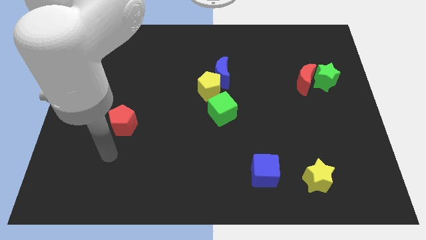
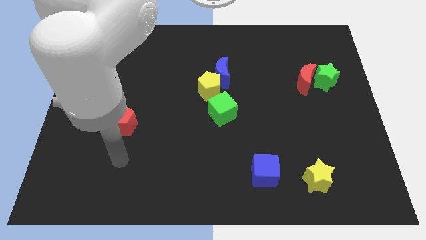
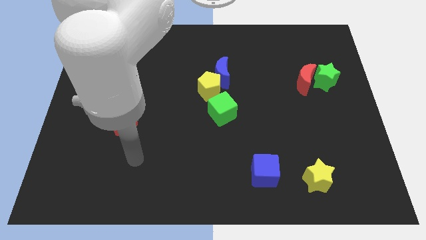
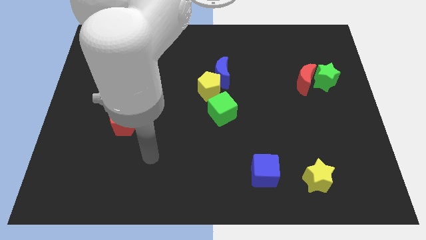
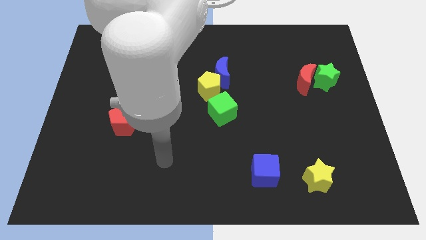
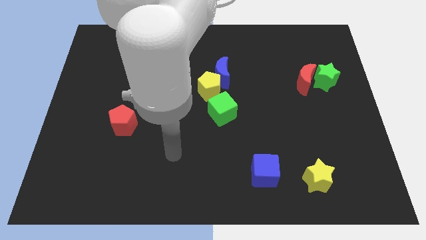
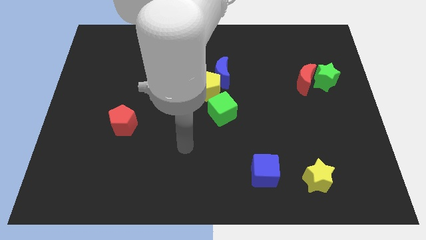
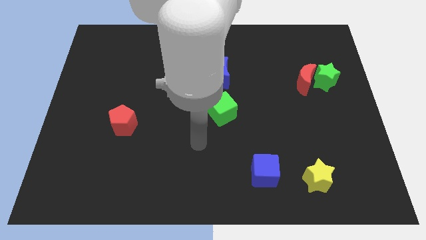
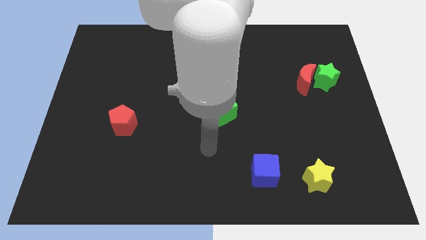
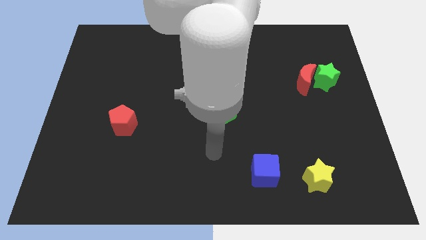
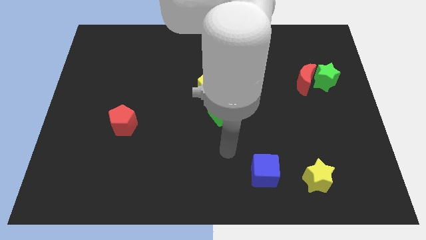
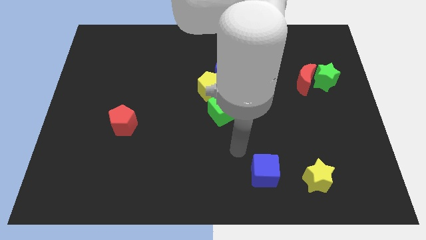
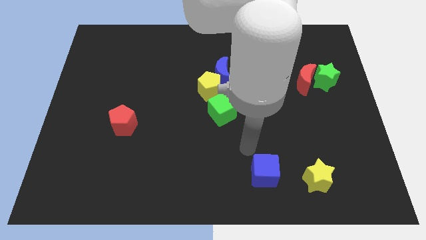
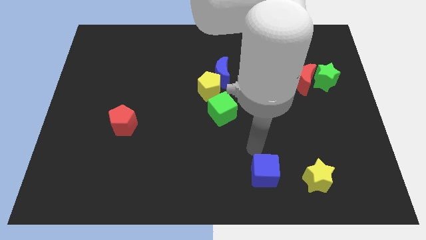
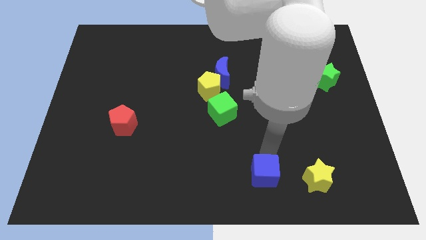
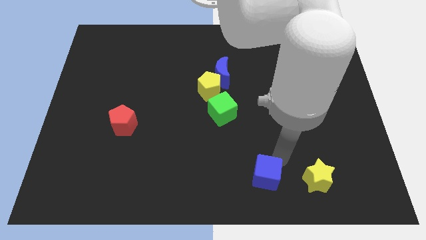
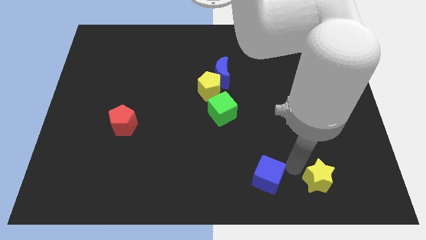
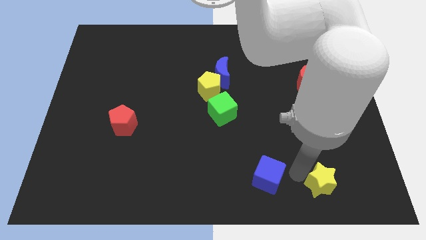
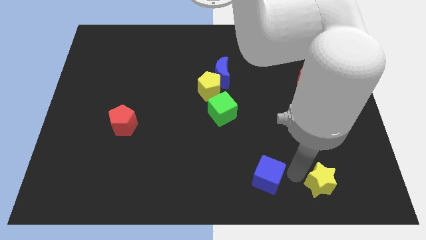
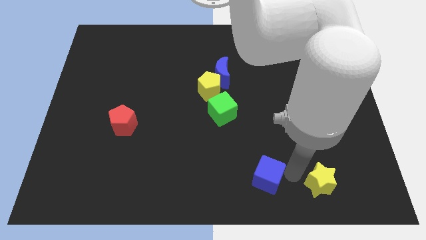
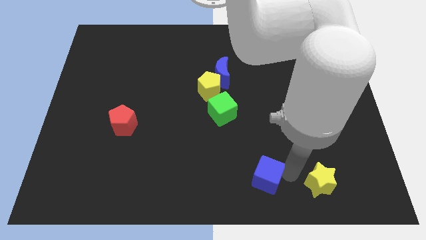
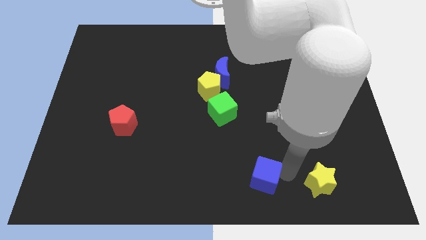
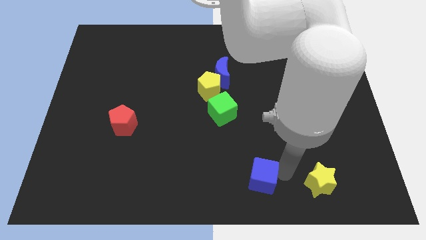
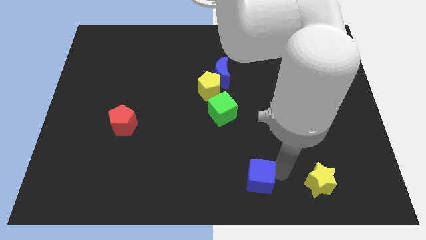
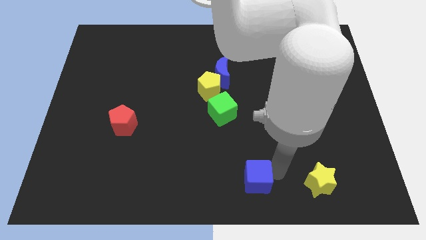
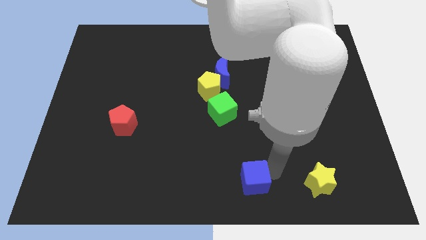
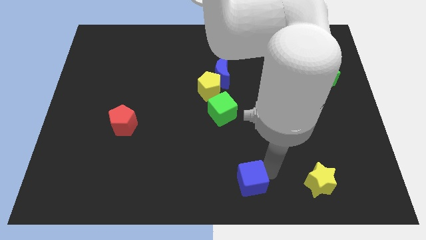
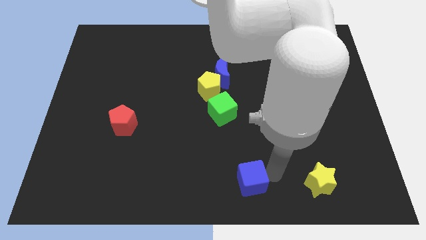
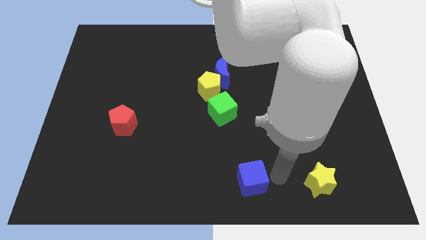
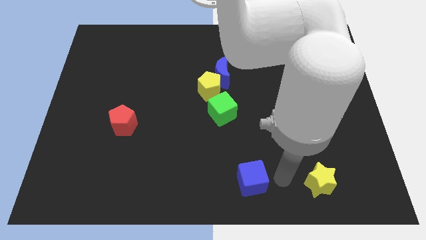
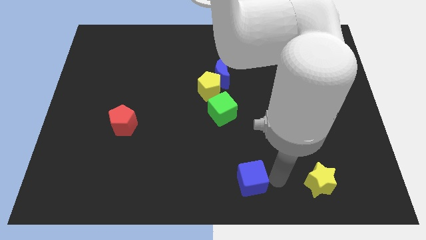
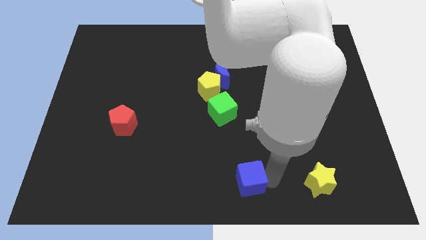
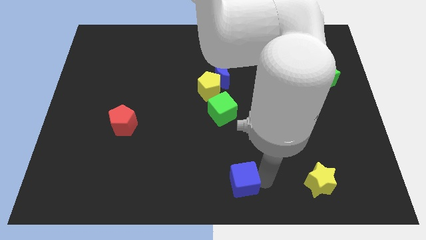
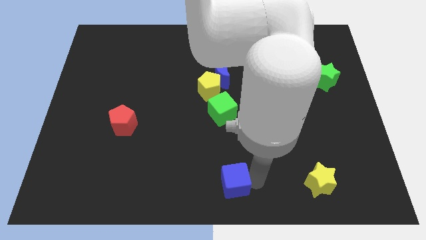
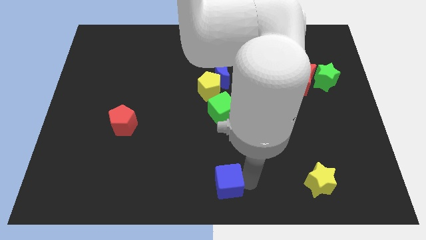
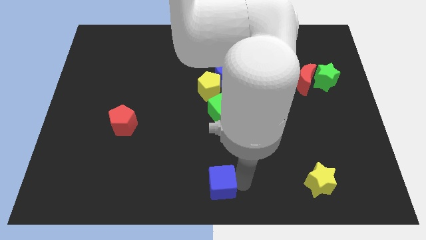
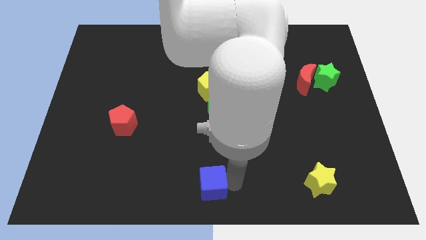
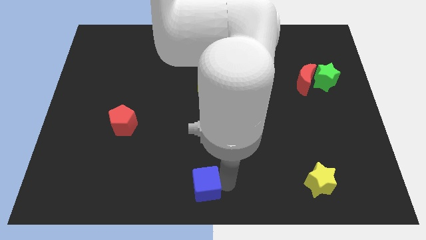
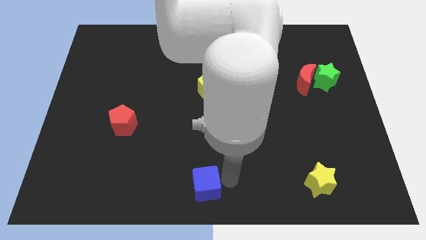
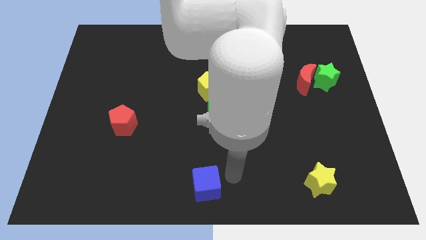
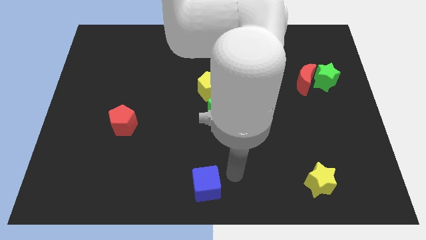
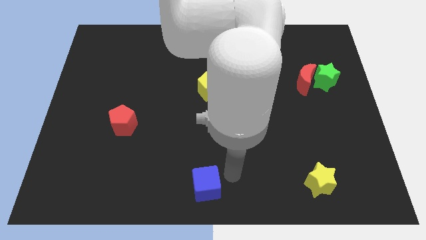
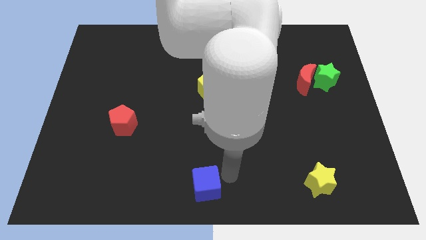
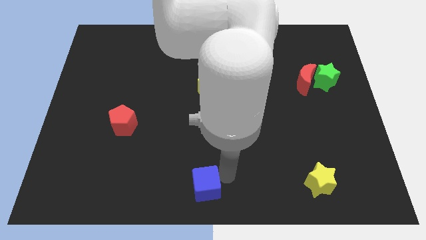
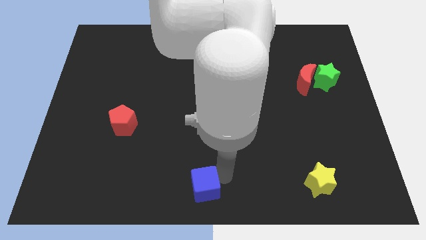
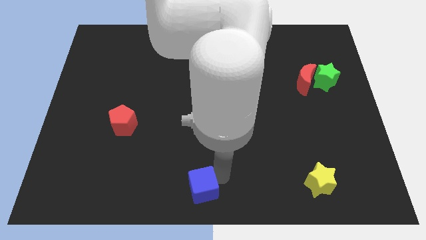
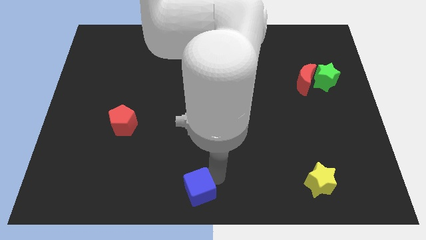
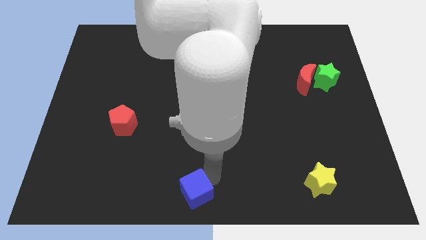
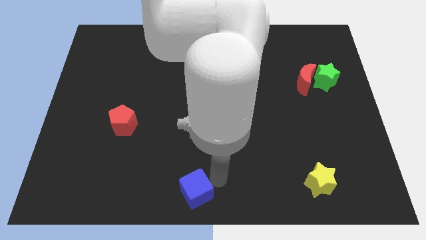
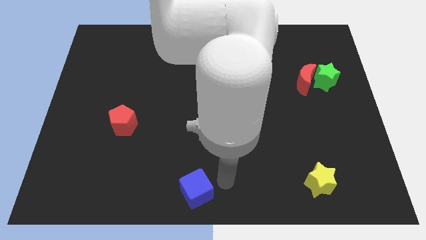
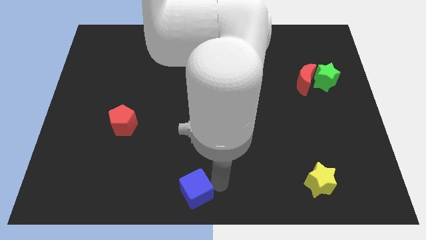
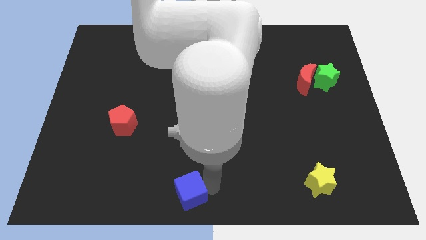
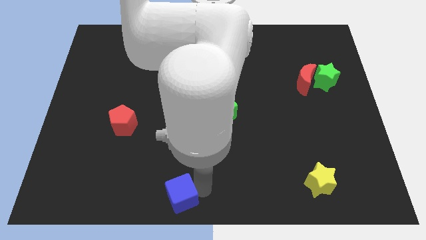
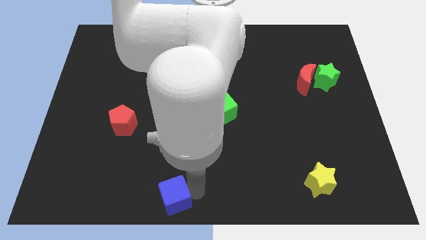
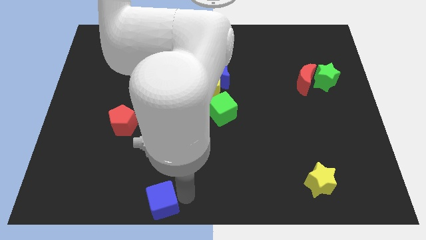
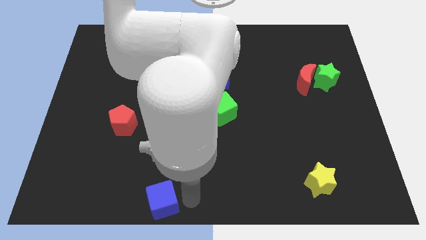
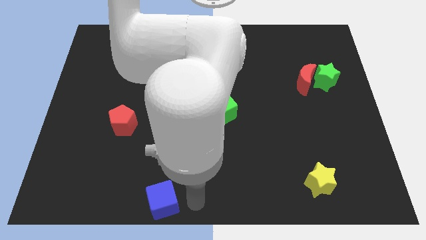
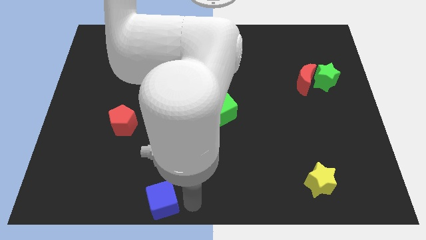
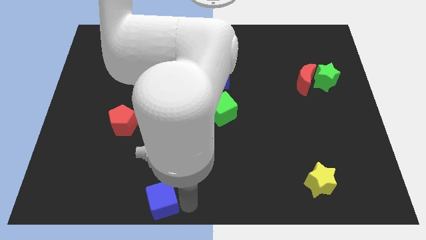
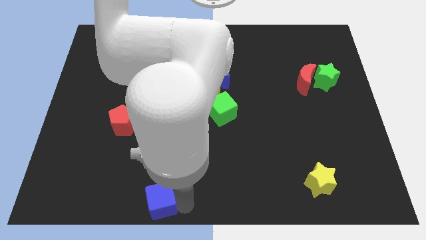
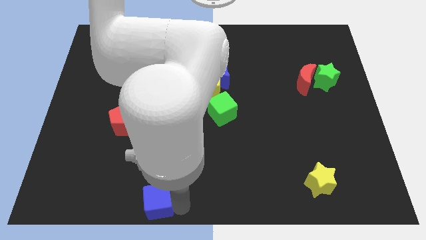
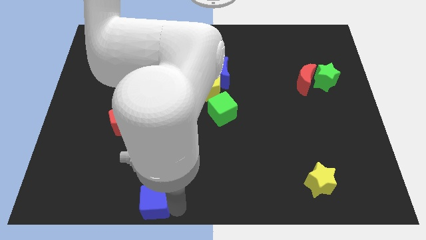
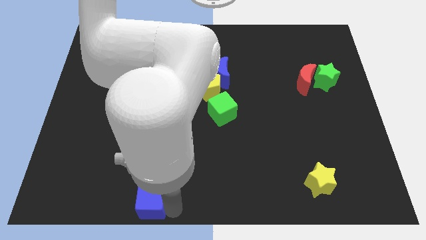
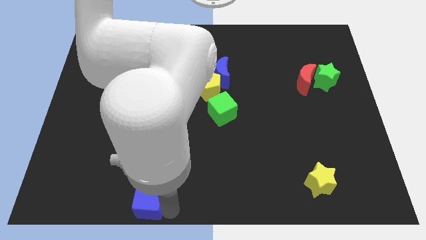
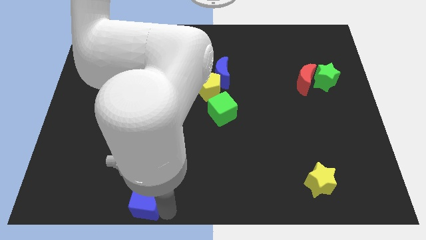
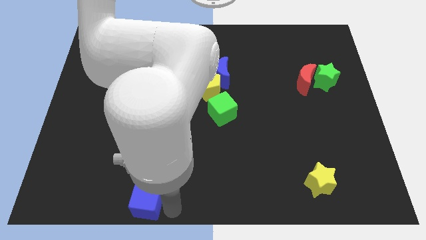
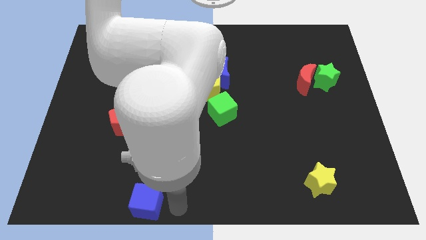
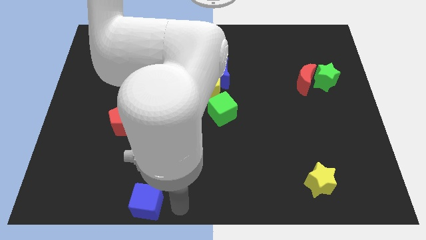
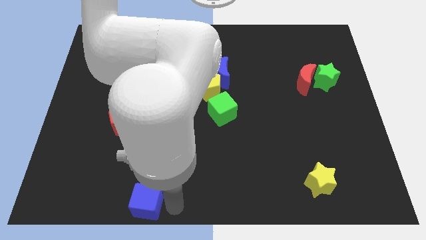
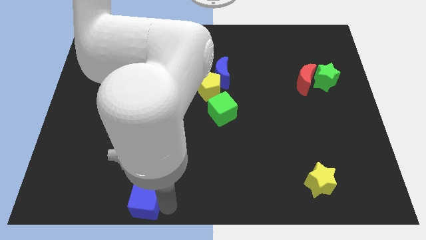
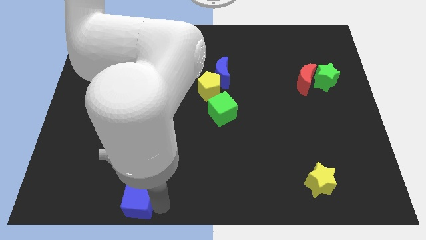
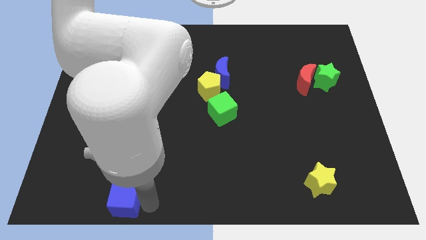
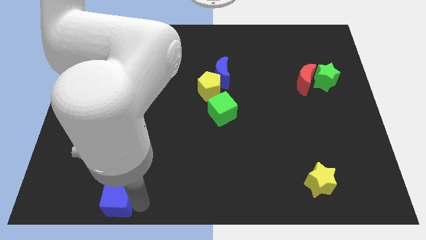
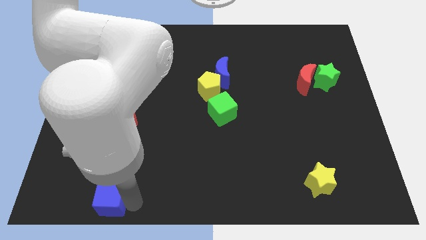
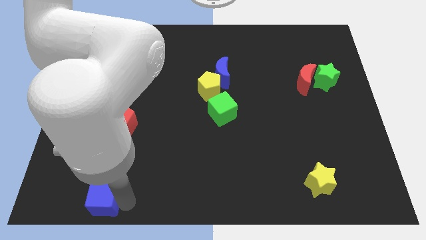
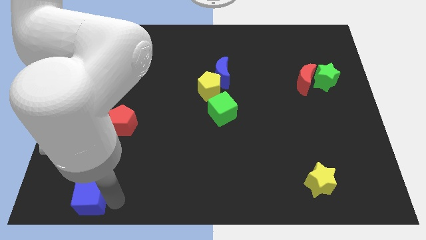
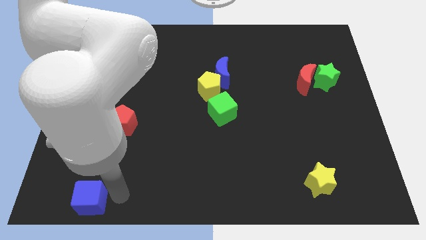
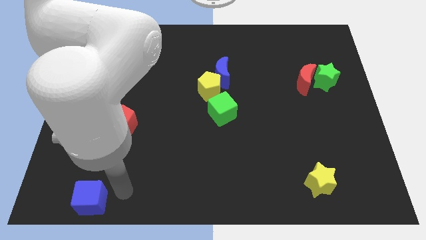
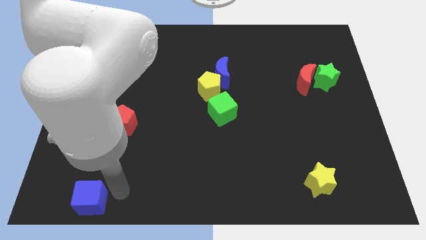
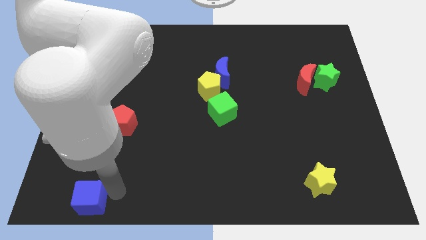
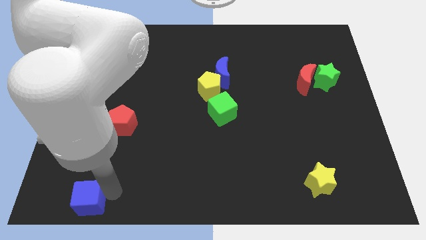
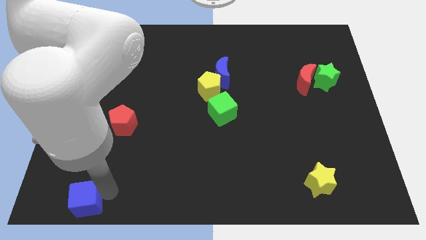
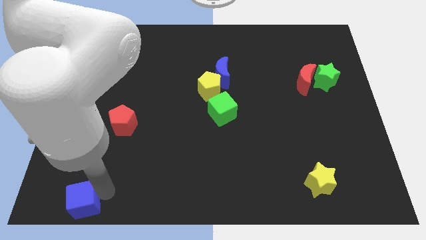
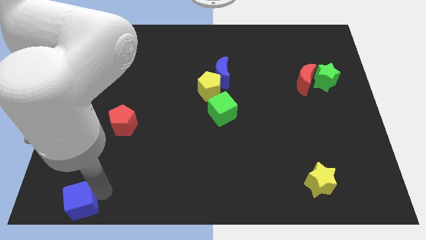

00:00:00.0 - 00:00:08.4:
push the blue cube to the bottom left
